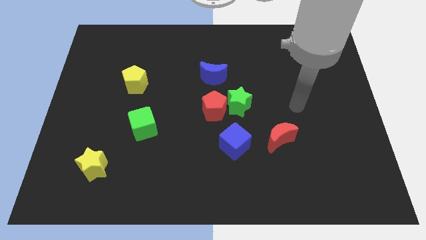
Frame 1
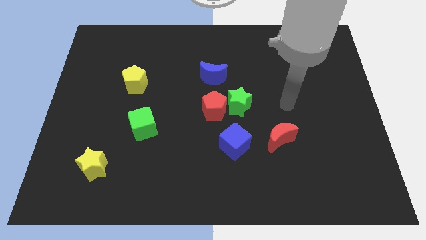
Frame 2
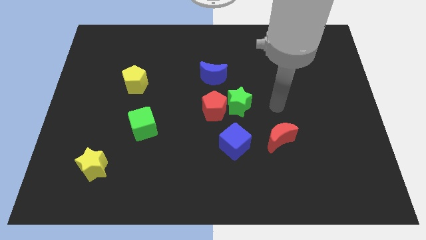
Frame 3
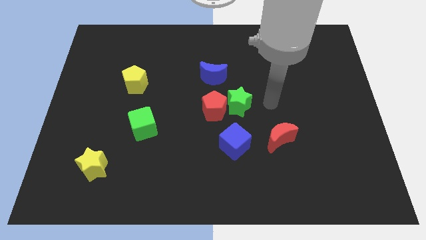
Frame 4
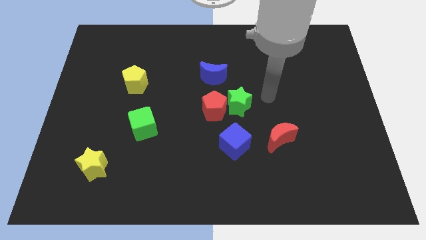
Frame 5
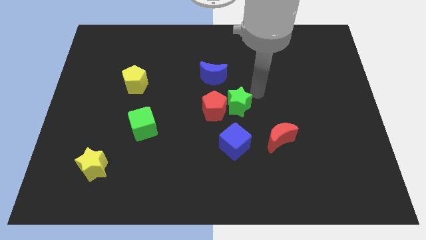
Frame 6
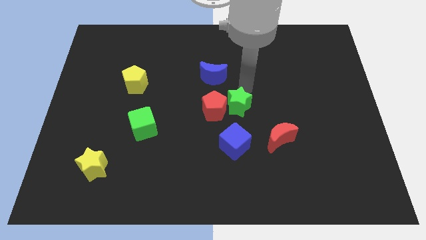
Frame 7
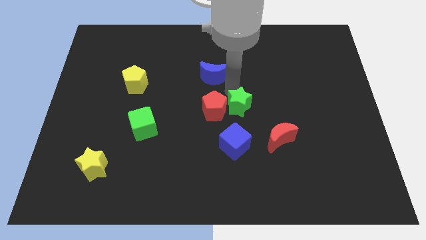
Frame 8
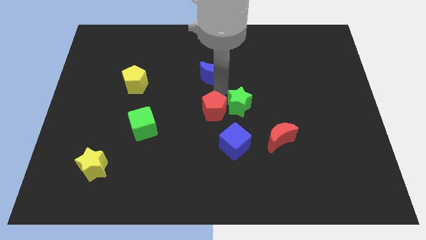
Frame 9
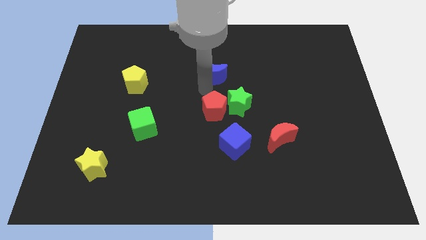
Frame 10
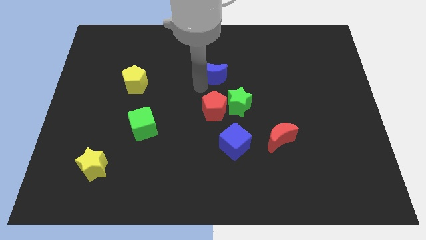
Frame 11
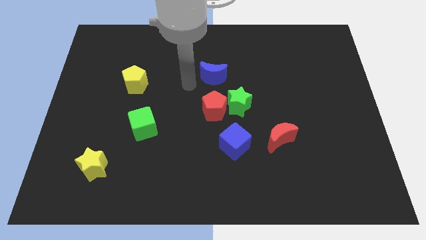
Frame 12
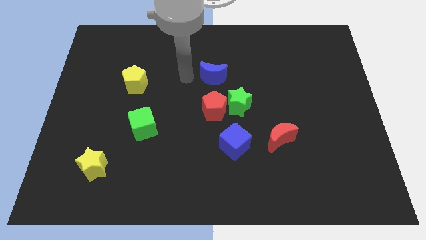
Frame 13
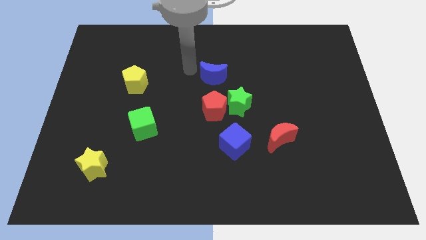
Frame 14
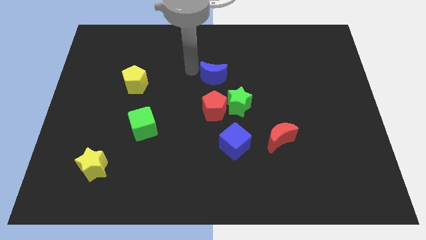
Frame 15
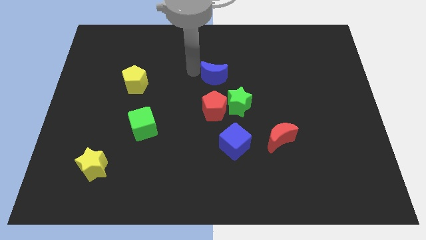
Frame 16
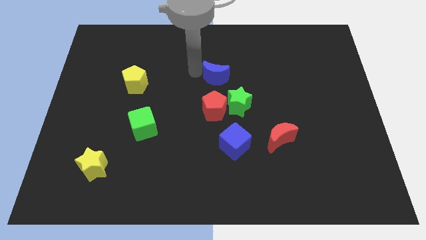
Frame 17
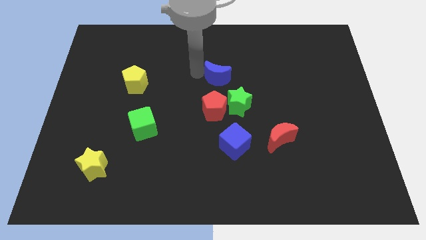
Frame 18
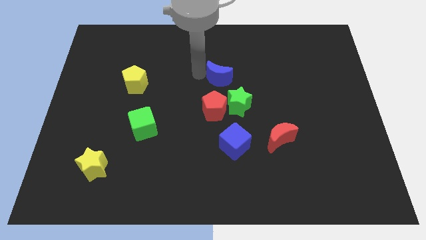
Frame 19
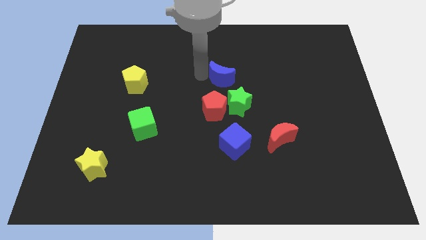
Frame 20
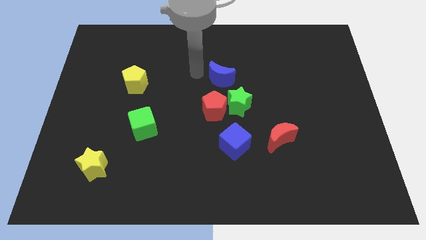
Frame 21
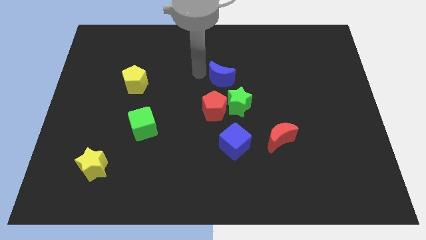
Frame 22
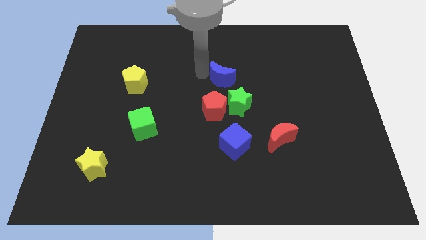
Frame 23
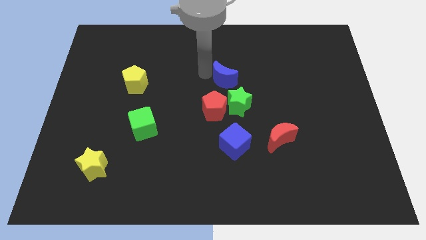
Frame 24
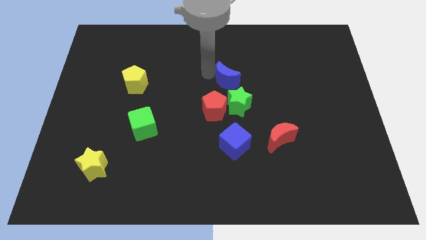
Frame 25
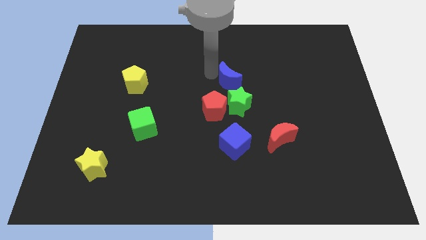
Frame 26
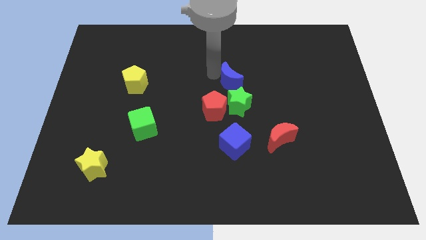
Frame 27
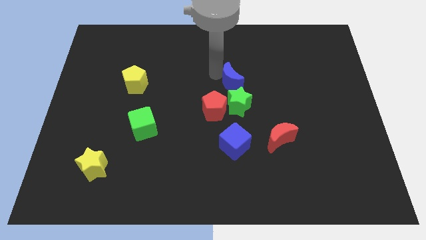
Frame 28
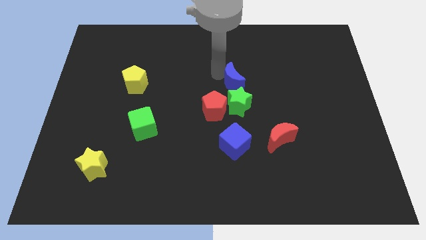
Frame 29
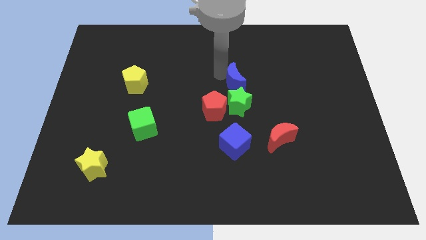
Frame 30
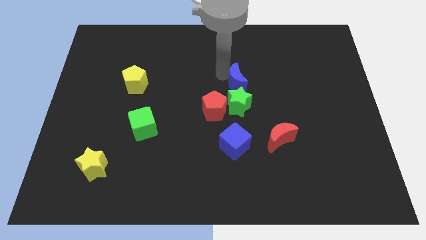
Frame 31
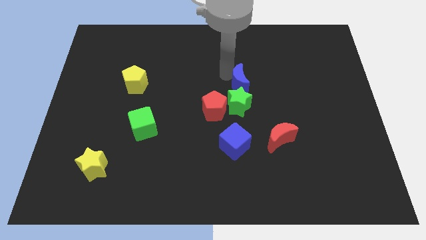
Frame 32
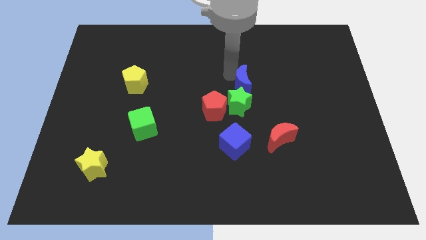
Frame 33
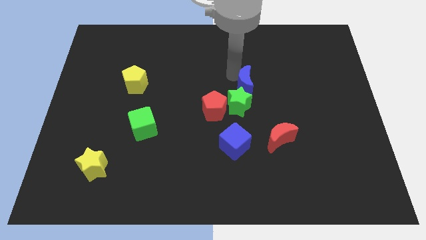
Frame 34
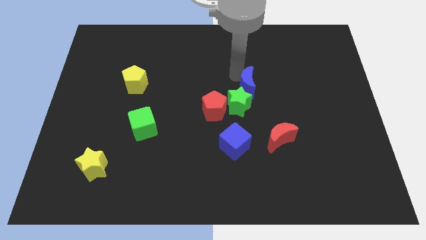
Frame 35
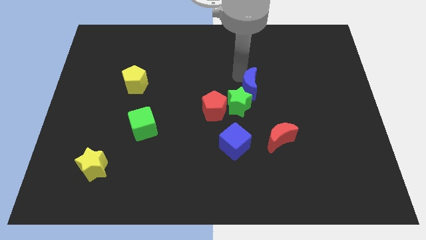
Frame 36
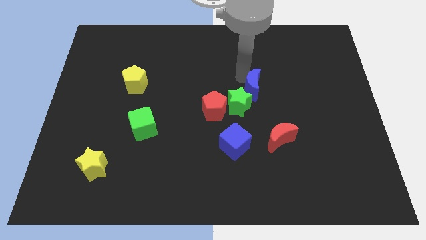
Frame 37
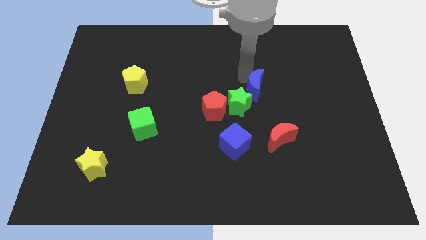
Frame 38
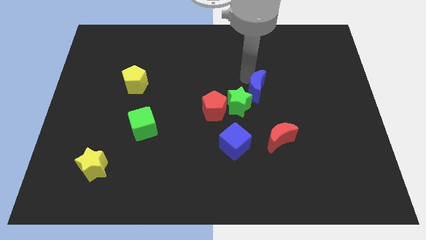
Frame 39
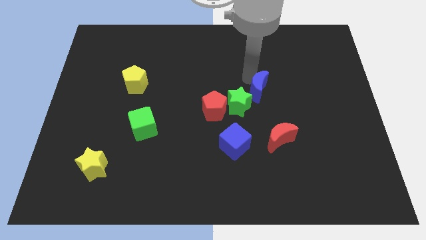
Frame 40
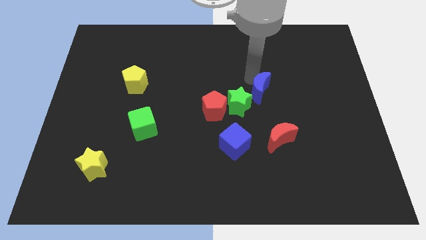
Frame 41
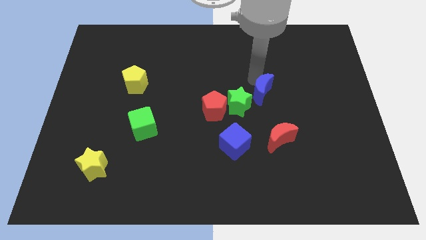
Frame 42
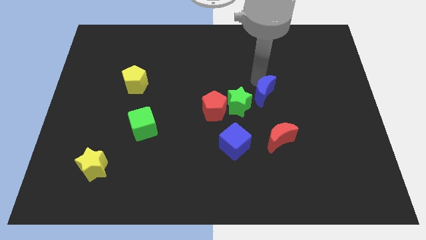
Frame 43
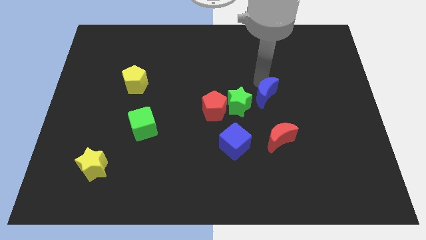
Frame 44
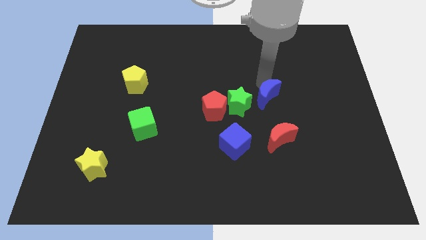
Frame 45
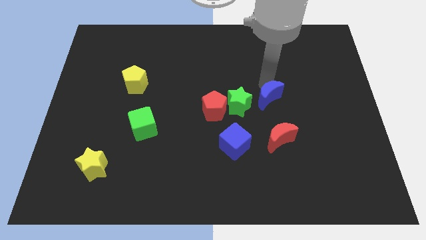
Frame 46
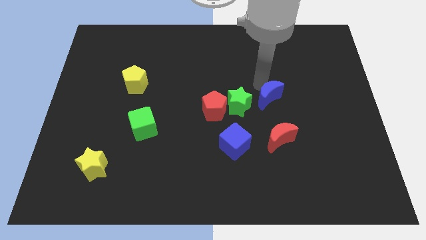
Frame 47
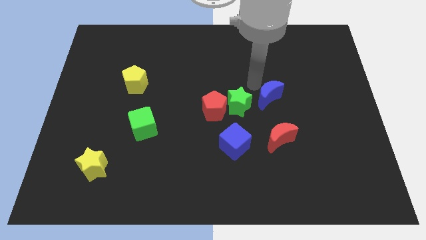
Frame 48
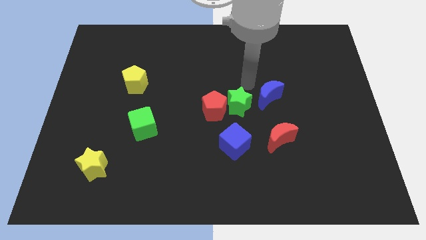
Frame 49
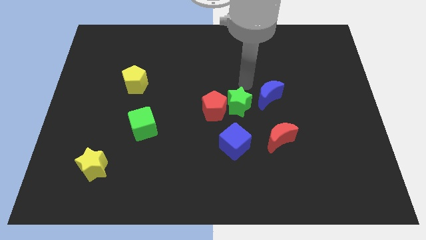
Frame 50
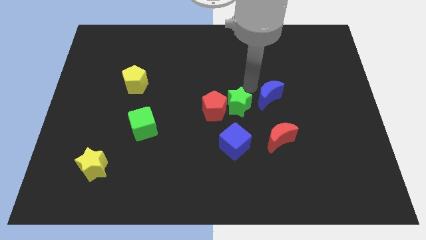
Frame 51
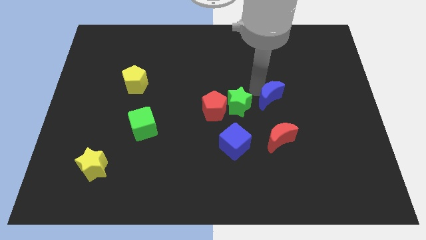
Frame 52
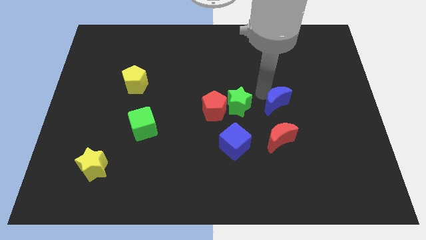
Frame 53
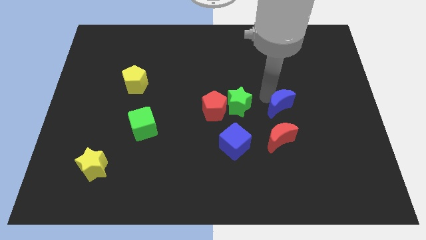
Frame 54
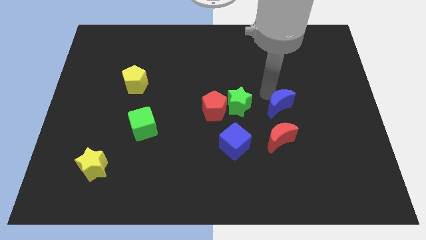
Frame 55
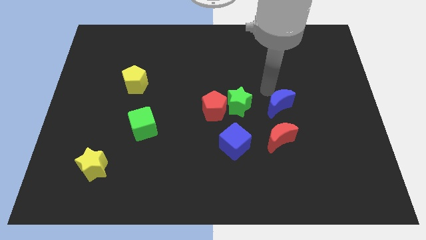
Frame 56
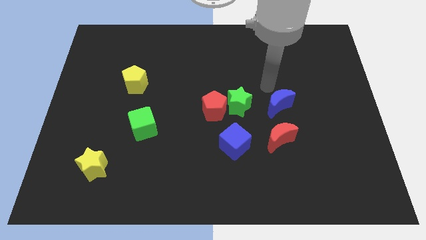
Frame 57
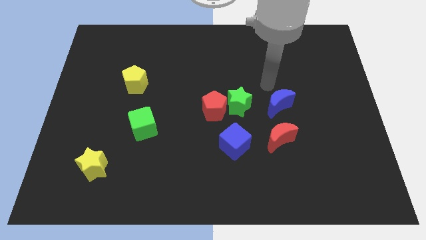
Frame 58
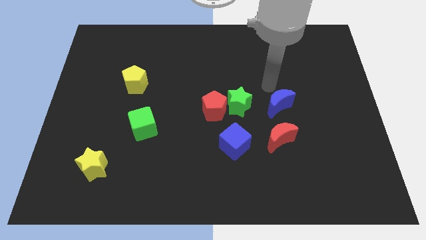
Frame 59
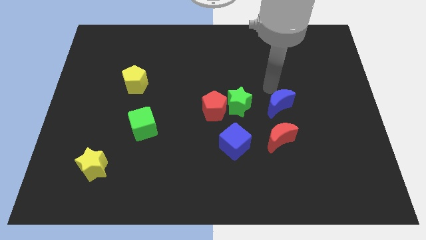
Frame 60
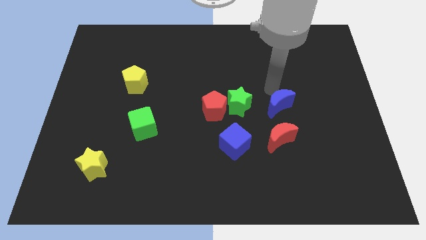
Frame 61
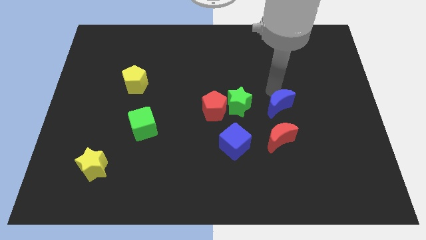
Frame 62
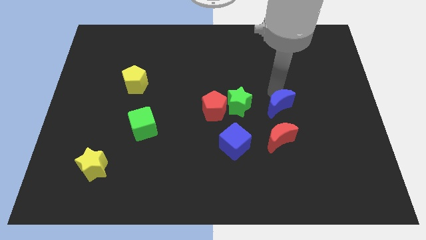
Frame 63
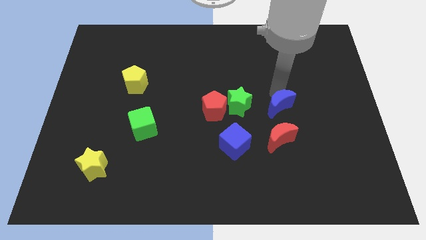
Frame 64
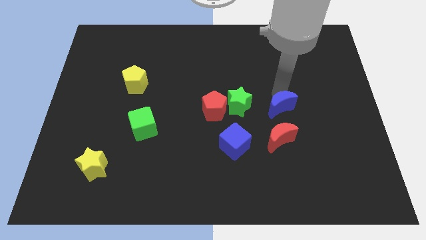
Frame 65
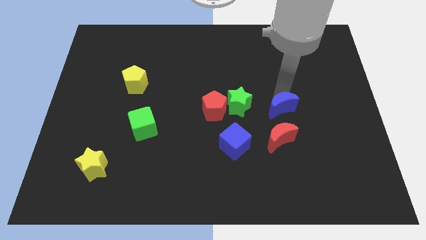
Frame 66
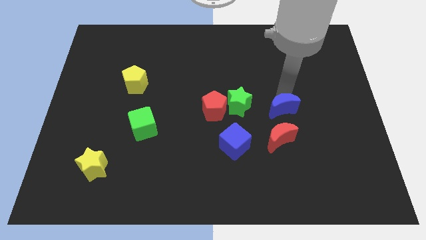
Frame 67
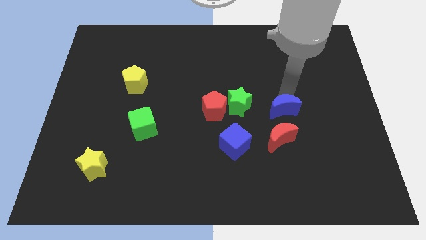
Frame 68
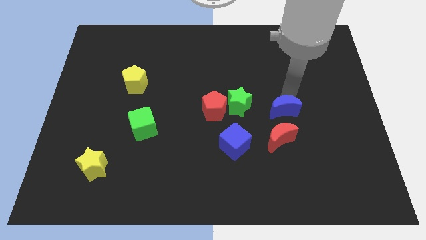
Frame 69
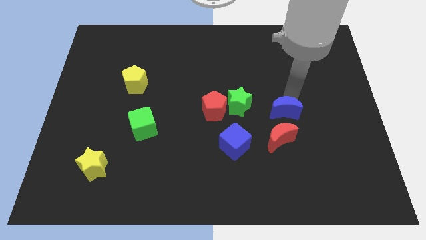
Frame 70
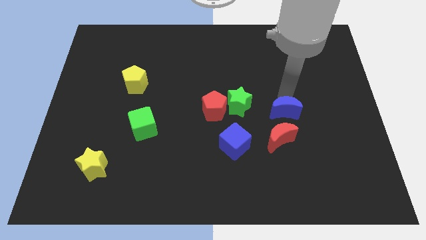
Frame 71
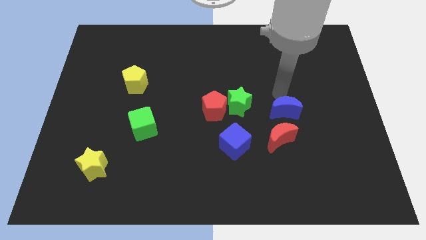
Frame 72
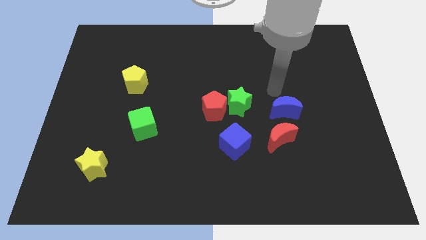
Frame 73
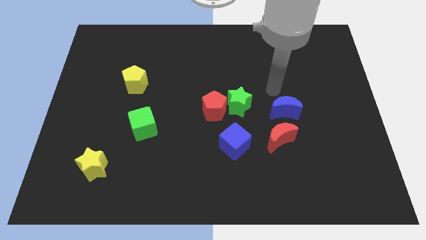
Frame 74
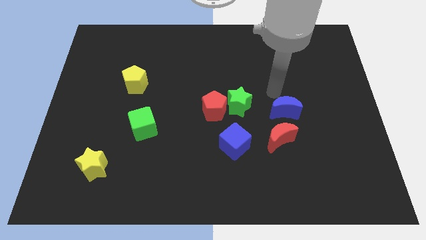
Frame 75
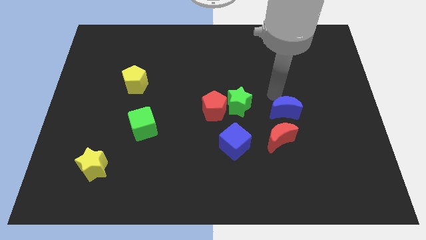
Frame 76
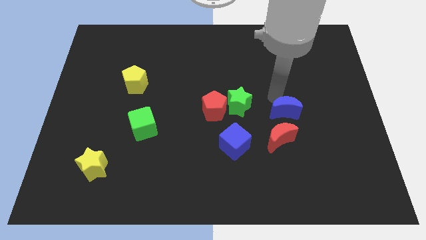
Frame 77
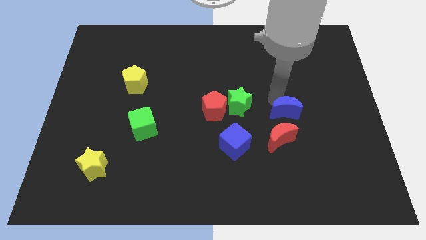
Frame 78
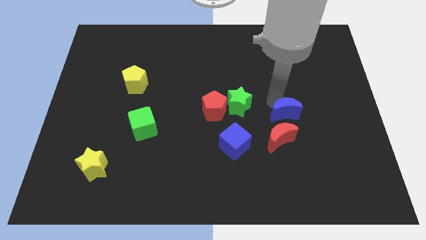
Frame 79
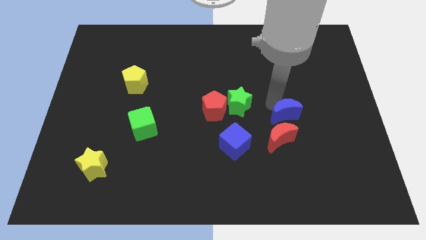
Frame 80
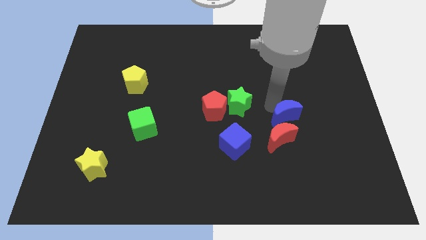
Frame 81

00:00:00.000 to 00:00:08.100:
push the blue moon diagonally down and to the right
